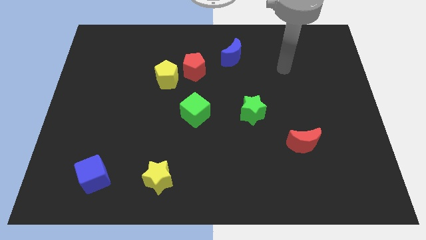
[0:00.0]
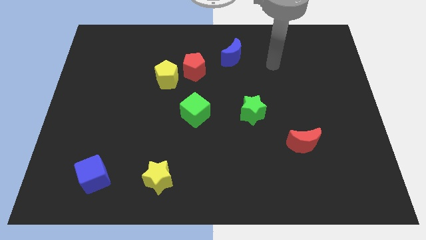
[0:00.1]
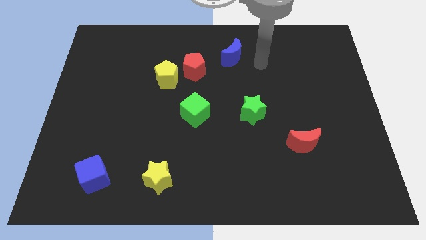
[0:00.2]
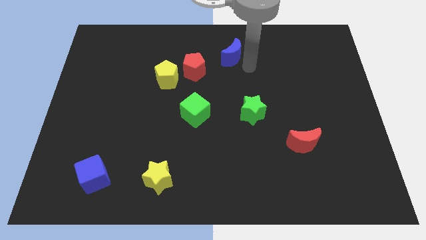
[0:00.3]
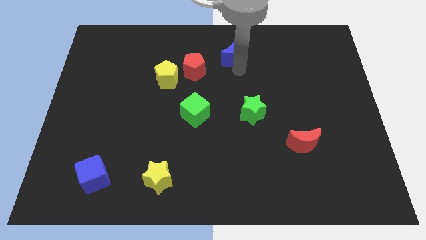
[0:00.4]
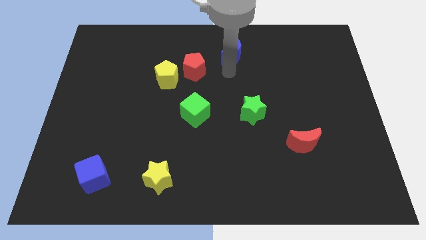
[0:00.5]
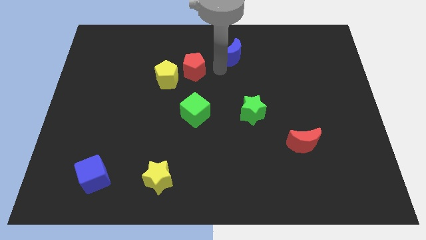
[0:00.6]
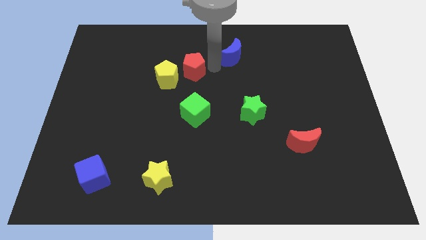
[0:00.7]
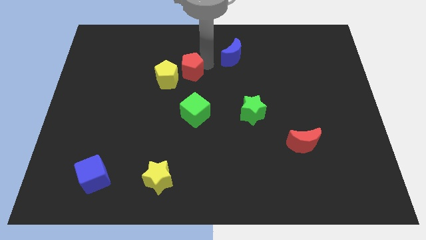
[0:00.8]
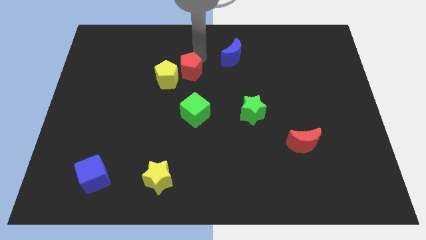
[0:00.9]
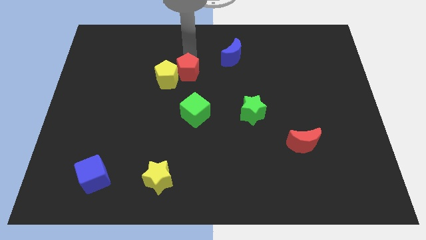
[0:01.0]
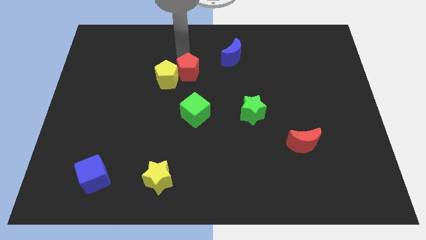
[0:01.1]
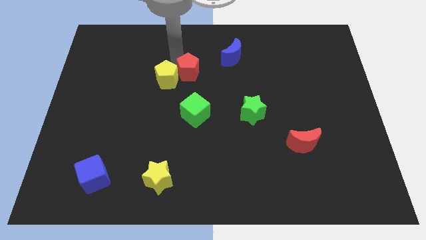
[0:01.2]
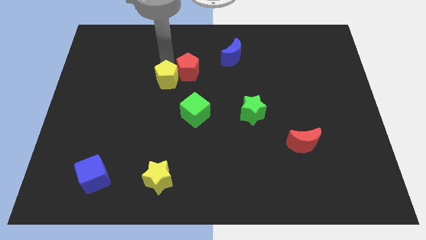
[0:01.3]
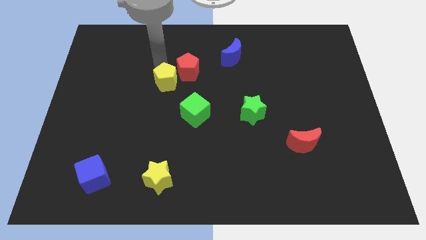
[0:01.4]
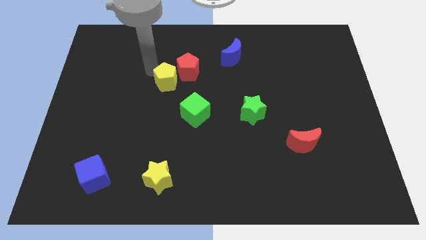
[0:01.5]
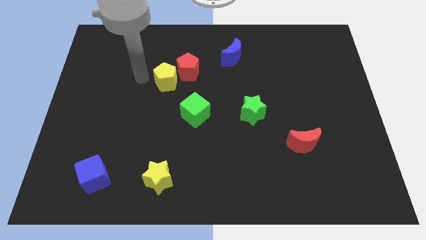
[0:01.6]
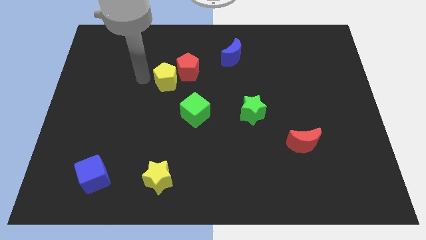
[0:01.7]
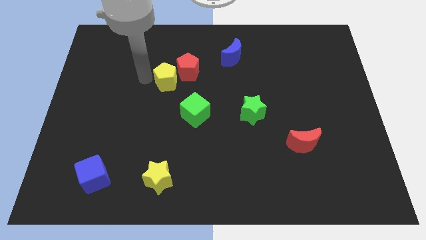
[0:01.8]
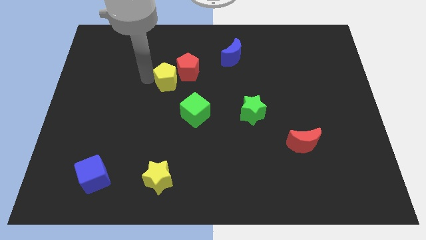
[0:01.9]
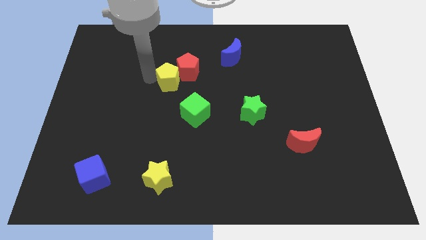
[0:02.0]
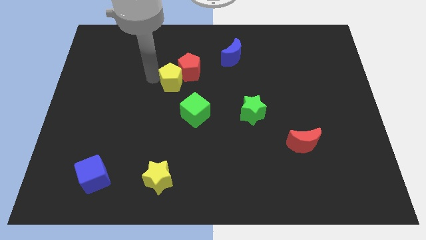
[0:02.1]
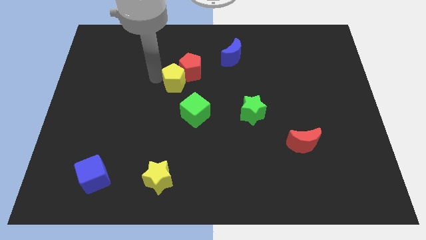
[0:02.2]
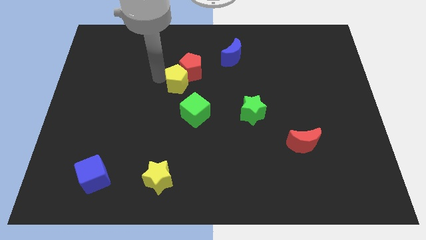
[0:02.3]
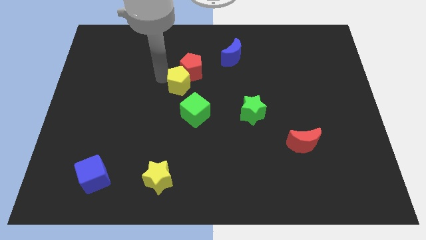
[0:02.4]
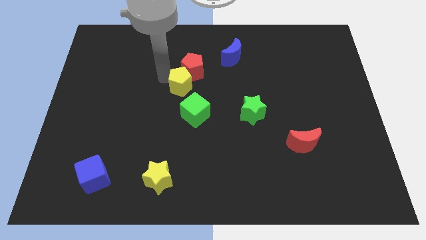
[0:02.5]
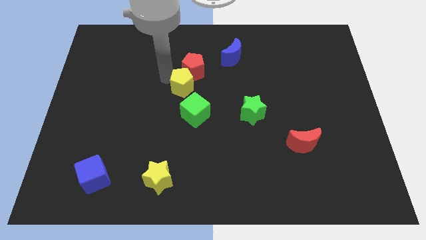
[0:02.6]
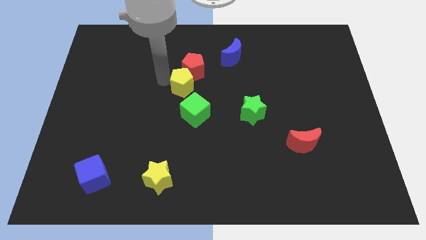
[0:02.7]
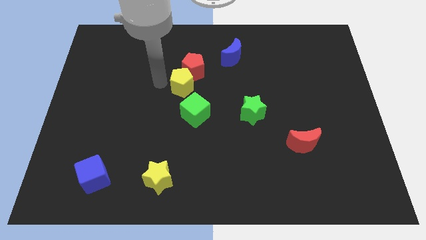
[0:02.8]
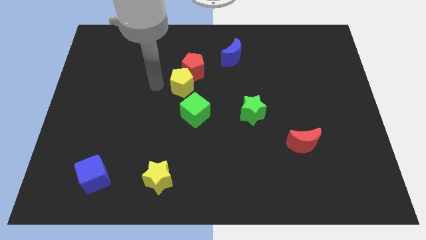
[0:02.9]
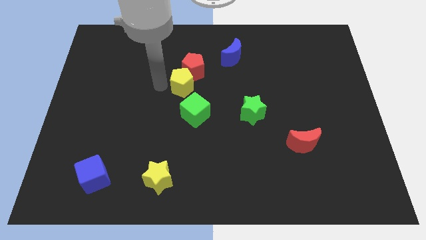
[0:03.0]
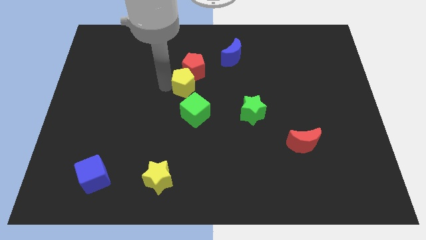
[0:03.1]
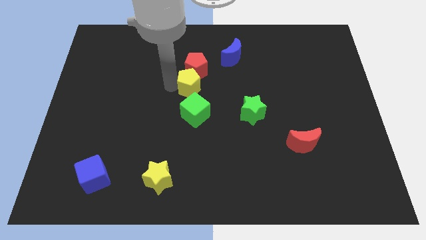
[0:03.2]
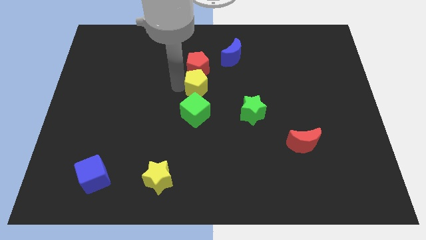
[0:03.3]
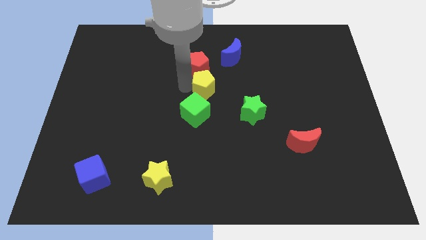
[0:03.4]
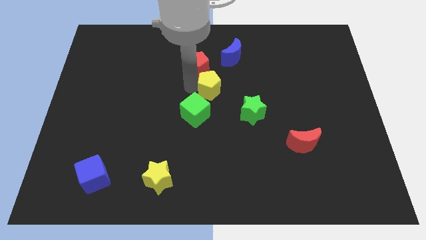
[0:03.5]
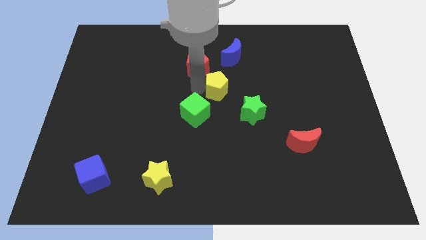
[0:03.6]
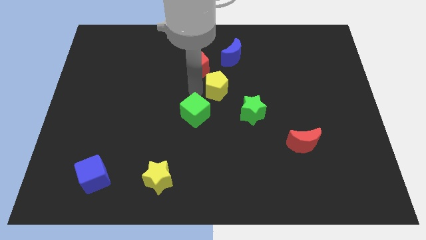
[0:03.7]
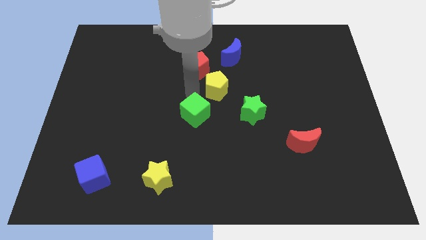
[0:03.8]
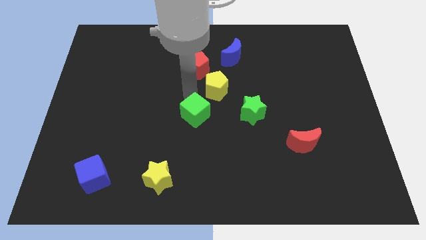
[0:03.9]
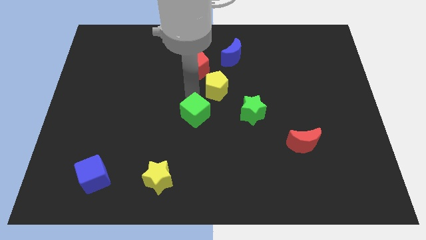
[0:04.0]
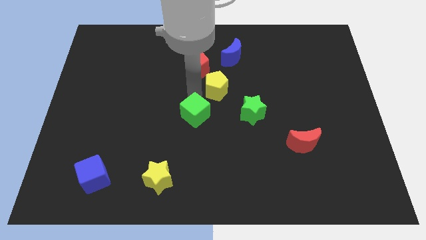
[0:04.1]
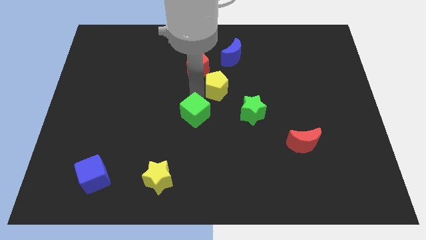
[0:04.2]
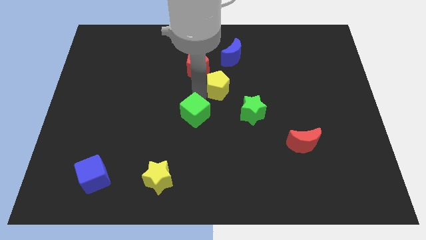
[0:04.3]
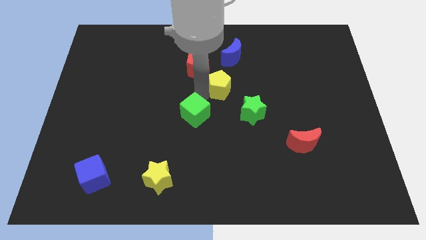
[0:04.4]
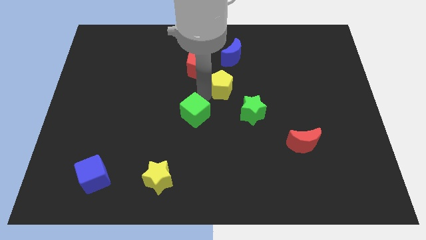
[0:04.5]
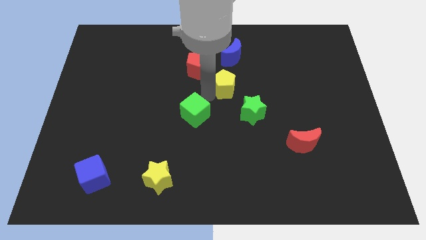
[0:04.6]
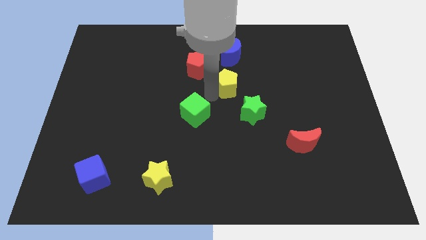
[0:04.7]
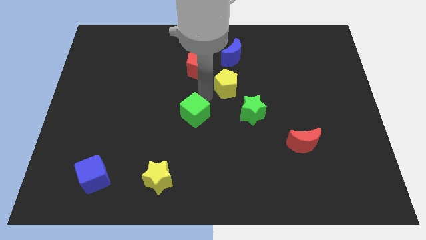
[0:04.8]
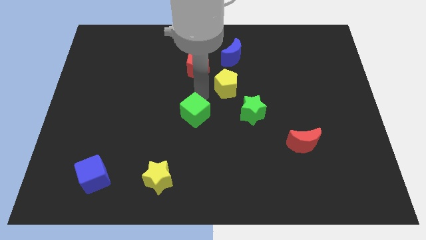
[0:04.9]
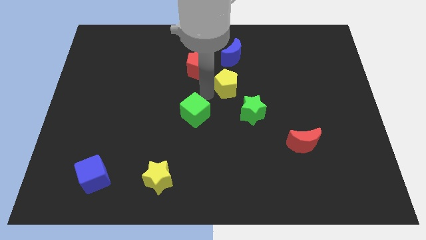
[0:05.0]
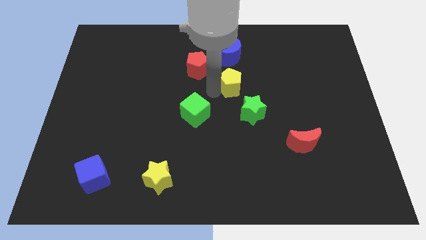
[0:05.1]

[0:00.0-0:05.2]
put the yellow pentagon to the top side of the green star

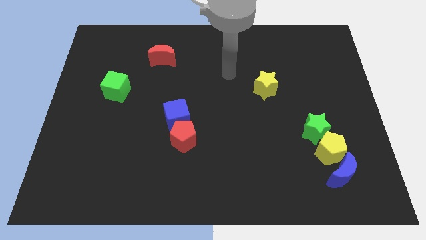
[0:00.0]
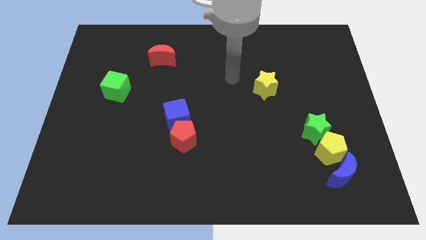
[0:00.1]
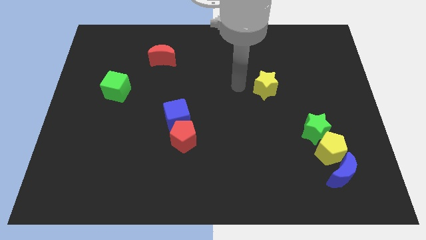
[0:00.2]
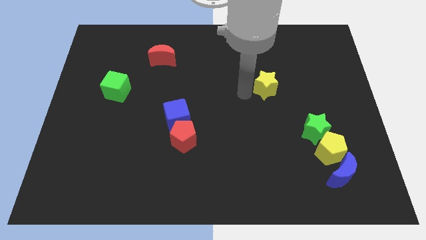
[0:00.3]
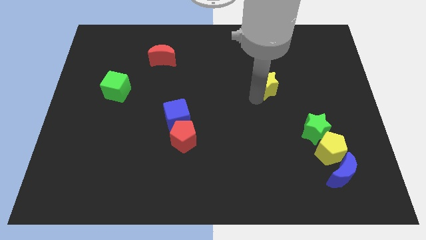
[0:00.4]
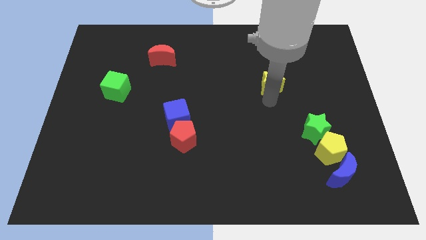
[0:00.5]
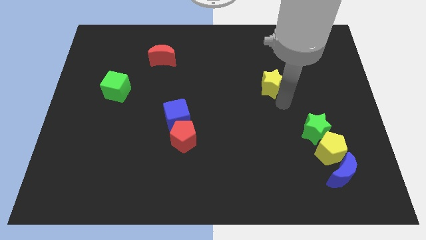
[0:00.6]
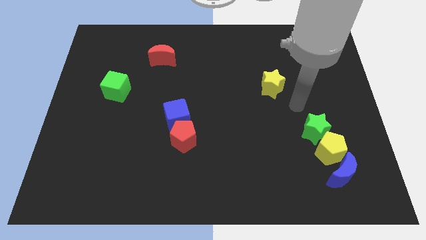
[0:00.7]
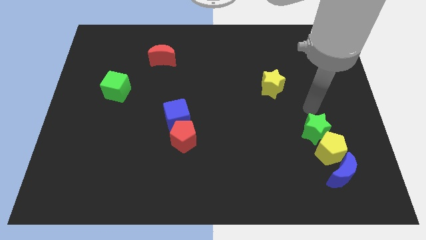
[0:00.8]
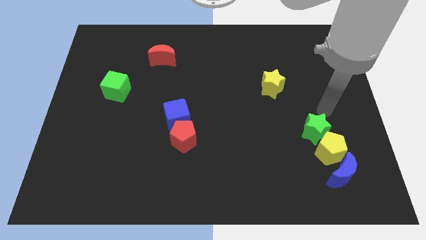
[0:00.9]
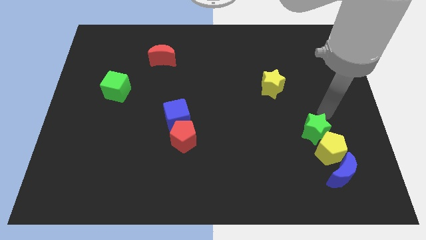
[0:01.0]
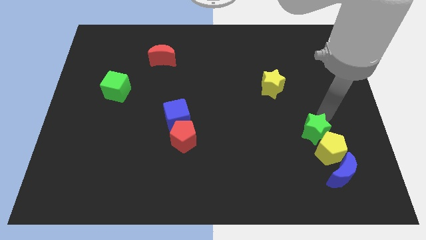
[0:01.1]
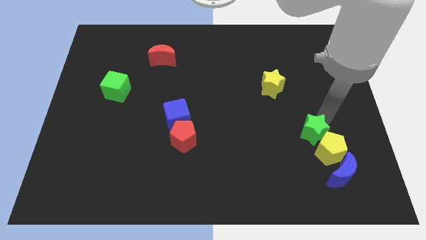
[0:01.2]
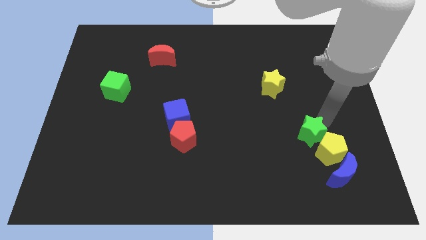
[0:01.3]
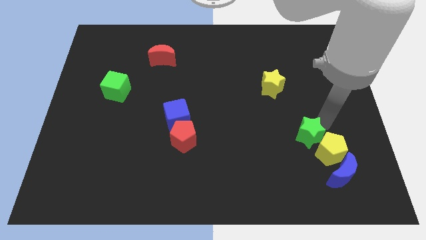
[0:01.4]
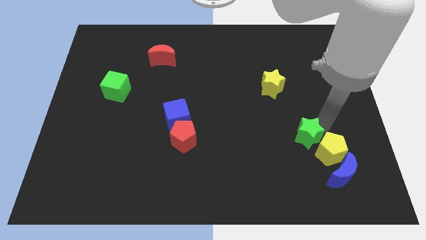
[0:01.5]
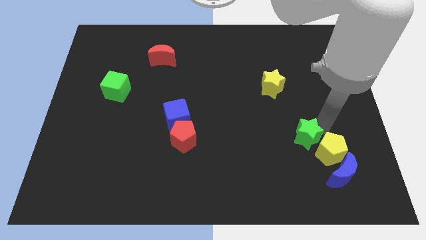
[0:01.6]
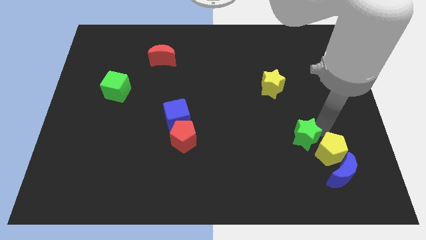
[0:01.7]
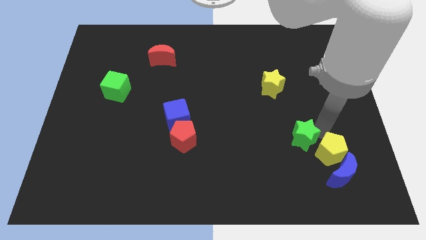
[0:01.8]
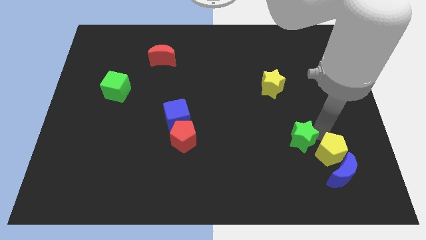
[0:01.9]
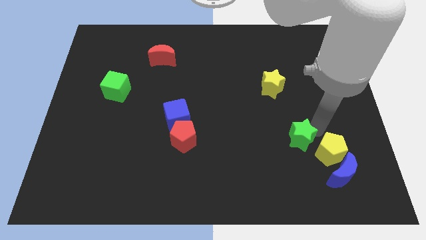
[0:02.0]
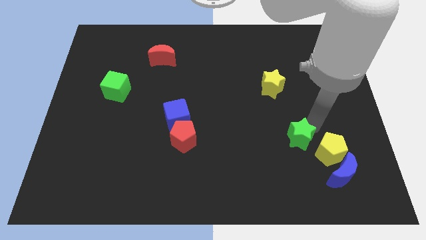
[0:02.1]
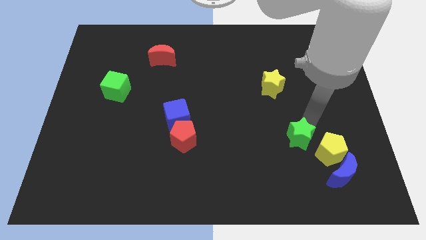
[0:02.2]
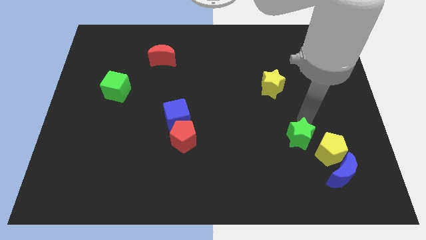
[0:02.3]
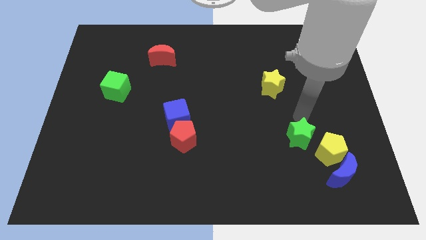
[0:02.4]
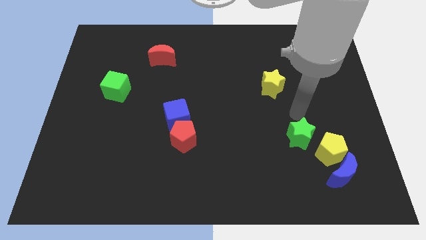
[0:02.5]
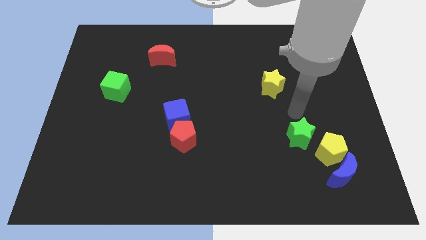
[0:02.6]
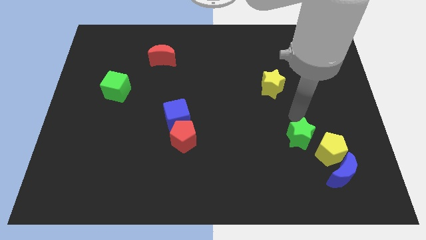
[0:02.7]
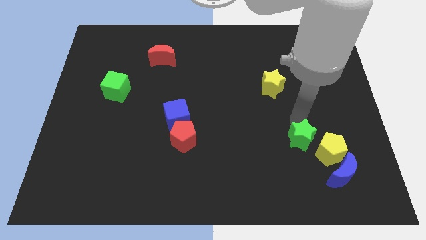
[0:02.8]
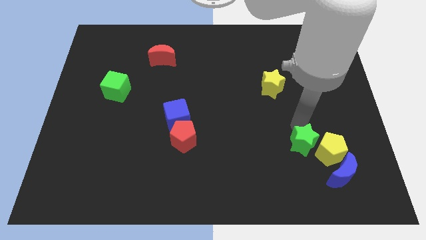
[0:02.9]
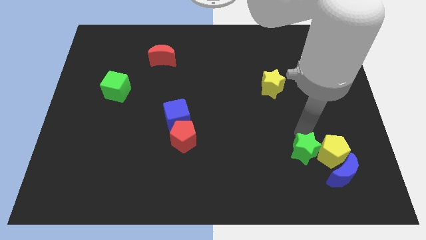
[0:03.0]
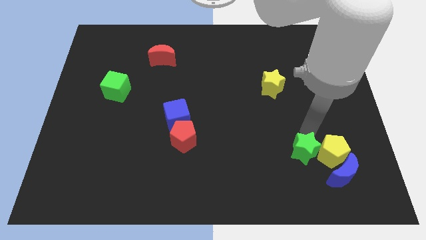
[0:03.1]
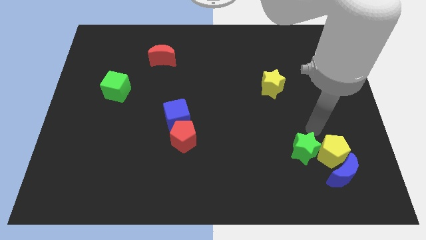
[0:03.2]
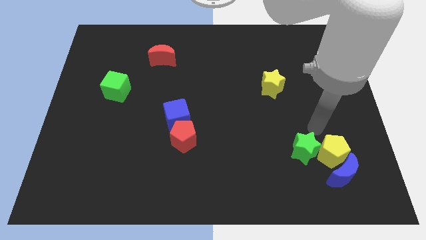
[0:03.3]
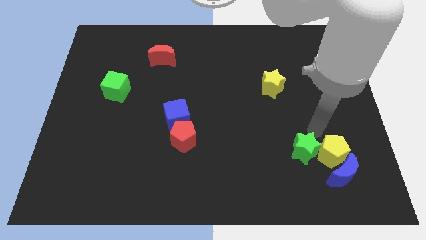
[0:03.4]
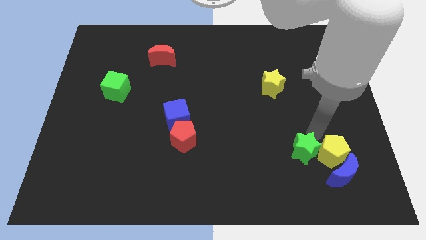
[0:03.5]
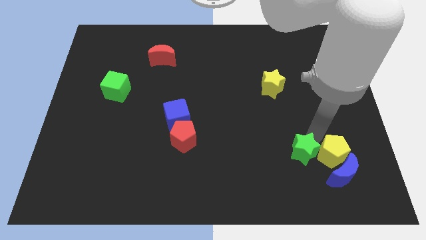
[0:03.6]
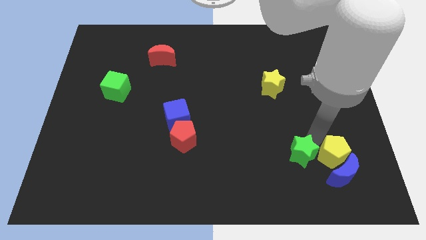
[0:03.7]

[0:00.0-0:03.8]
push the green star to the left of the blue moon
